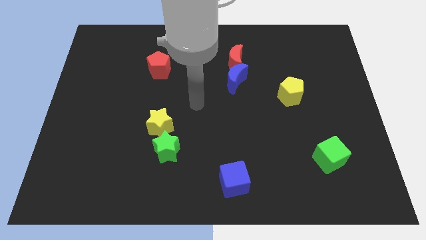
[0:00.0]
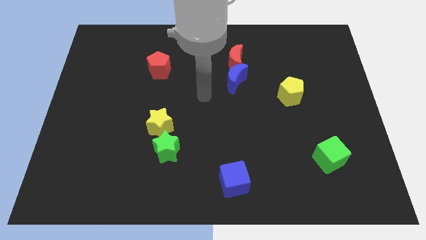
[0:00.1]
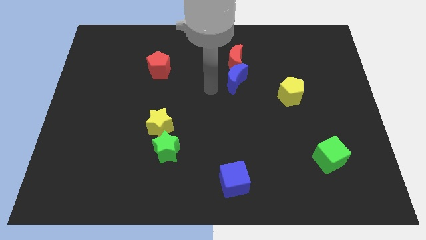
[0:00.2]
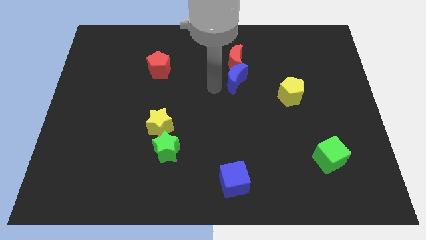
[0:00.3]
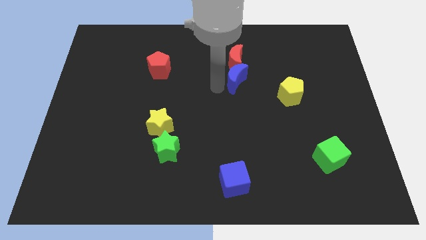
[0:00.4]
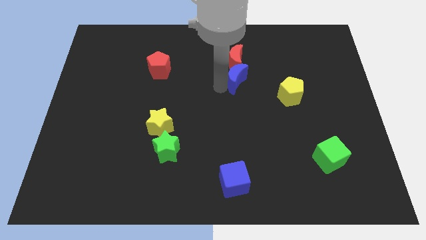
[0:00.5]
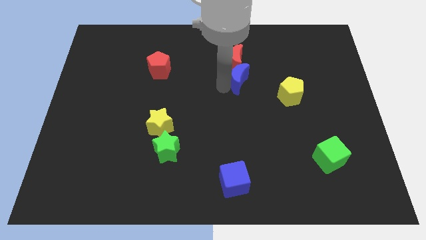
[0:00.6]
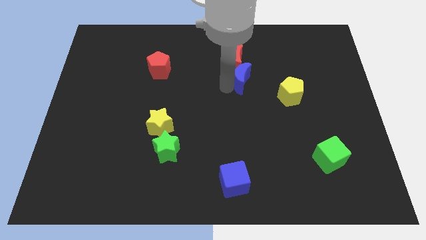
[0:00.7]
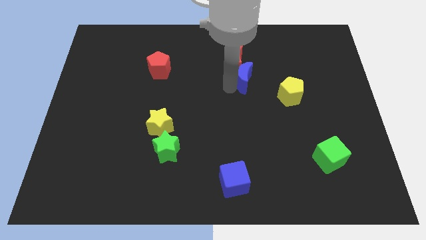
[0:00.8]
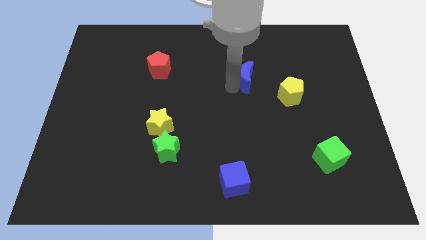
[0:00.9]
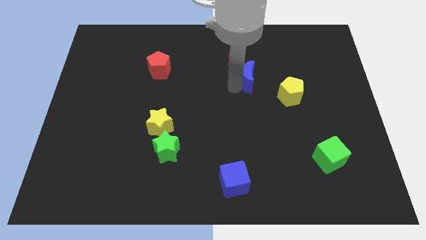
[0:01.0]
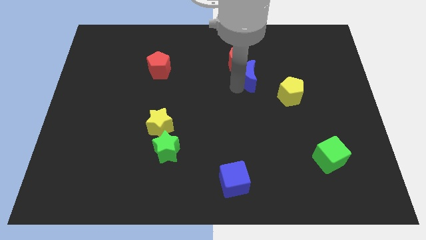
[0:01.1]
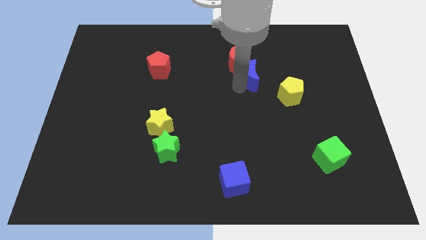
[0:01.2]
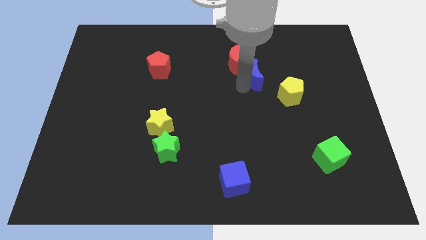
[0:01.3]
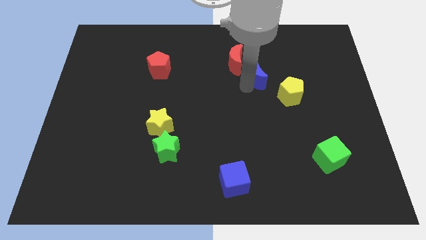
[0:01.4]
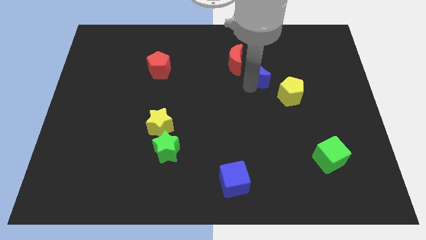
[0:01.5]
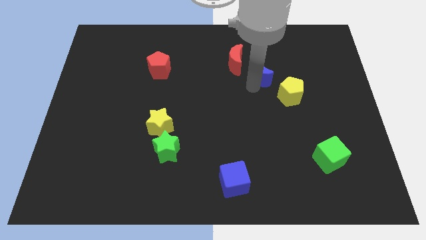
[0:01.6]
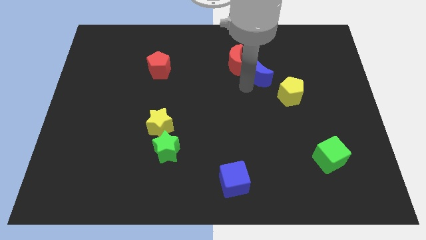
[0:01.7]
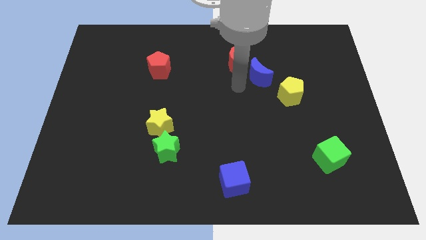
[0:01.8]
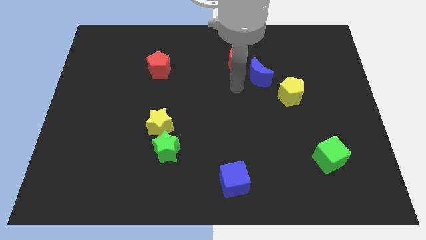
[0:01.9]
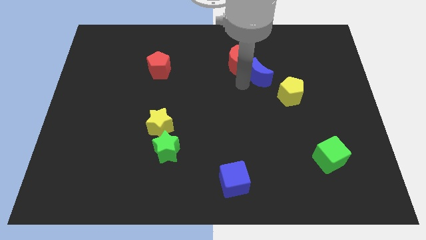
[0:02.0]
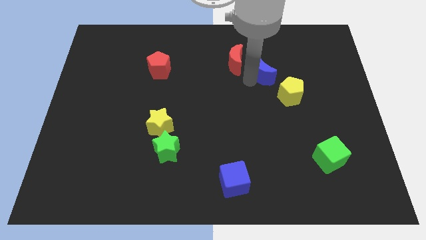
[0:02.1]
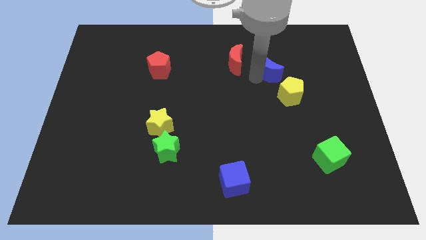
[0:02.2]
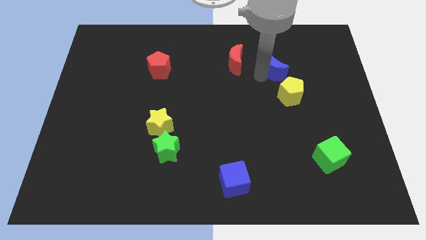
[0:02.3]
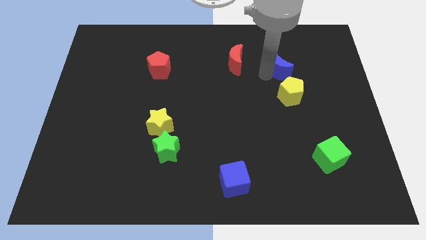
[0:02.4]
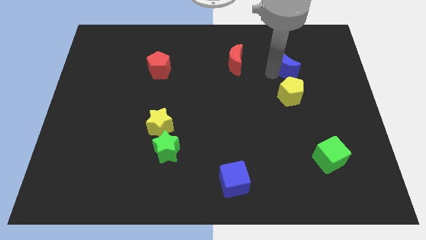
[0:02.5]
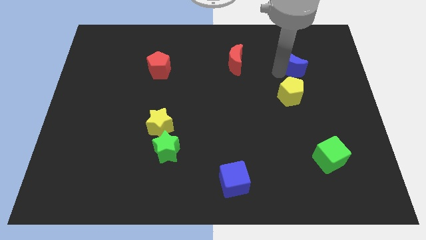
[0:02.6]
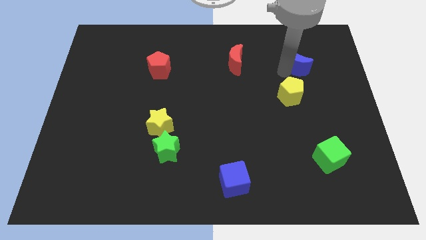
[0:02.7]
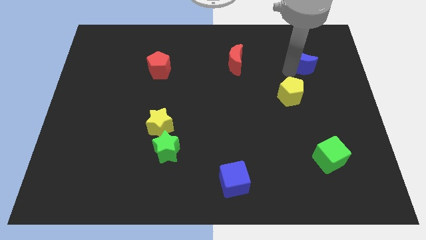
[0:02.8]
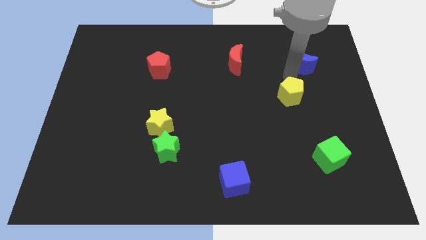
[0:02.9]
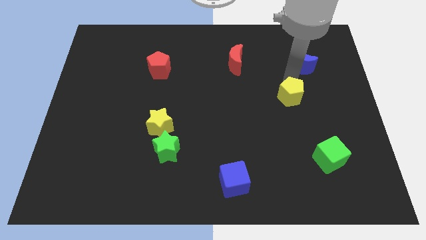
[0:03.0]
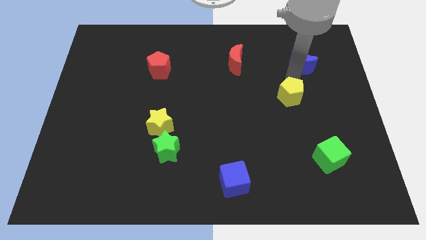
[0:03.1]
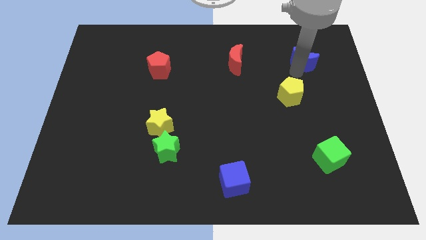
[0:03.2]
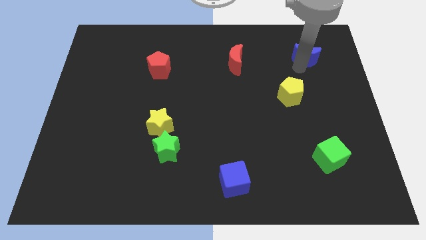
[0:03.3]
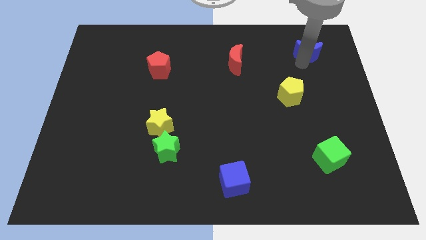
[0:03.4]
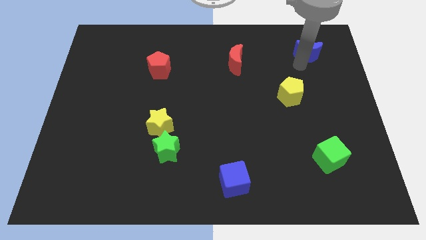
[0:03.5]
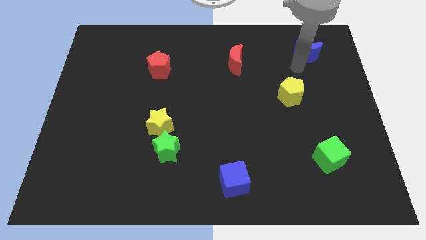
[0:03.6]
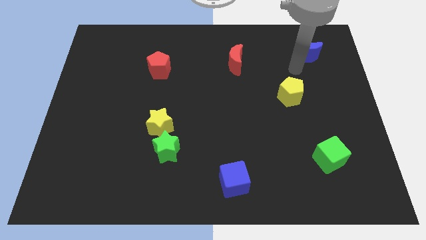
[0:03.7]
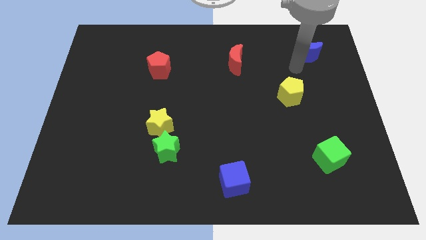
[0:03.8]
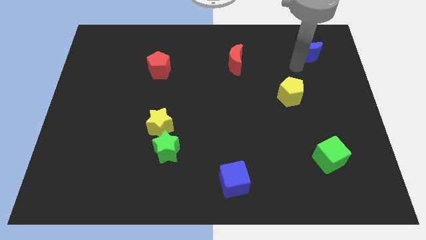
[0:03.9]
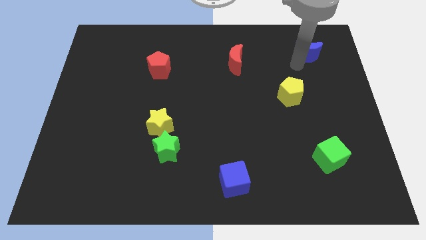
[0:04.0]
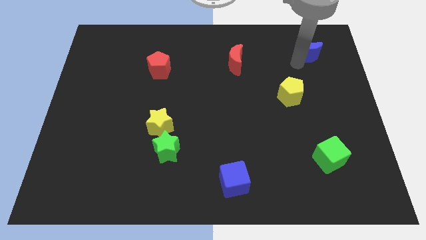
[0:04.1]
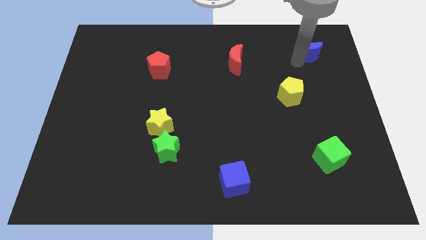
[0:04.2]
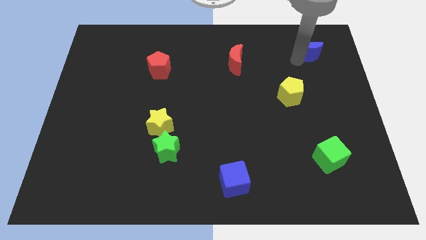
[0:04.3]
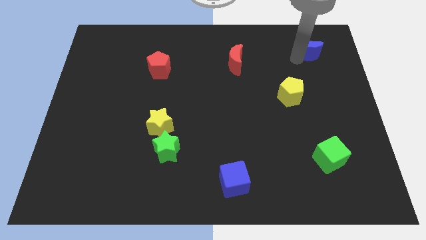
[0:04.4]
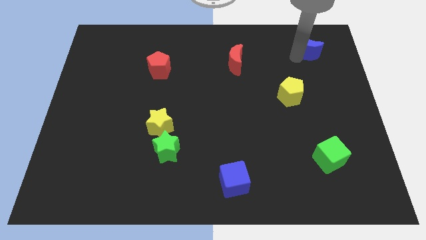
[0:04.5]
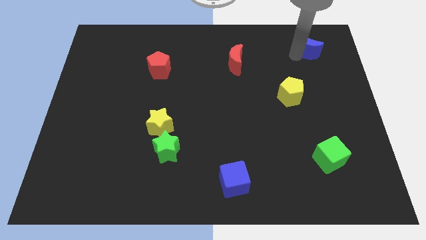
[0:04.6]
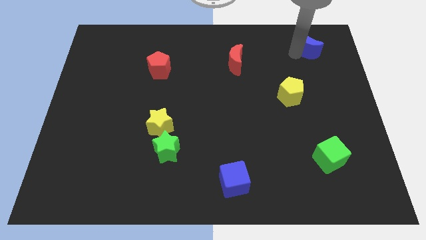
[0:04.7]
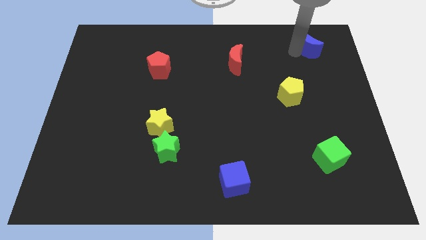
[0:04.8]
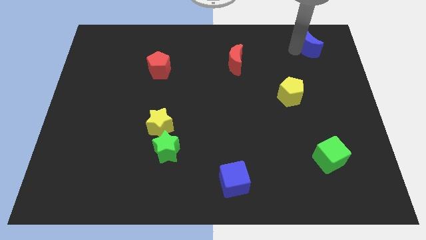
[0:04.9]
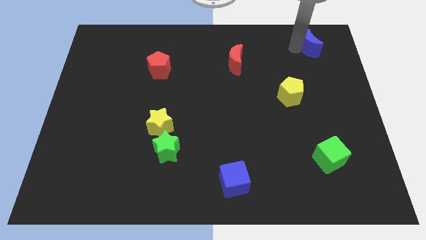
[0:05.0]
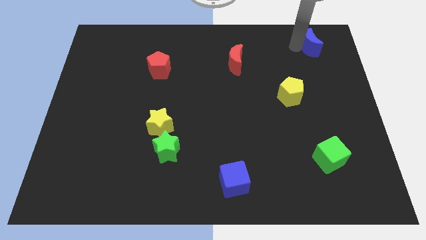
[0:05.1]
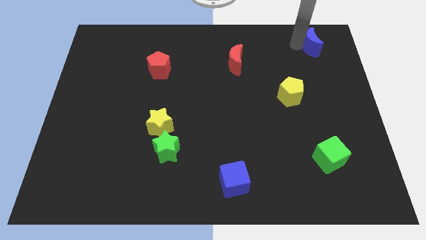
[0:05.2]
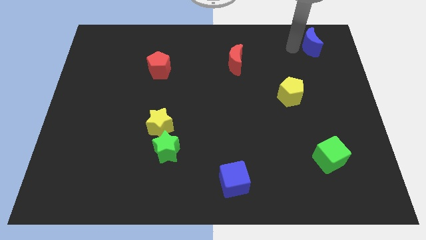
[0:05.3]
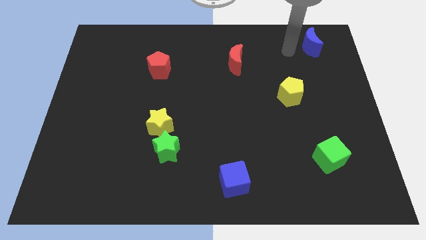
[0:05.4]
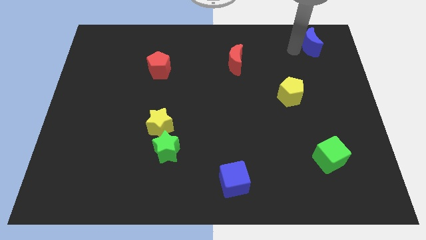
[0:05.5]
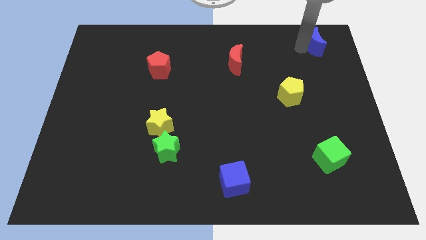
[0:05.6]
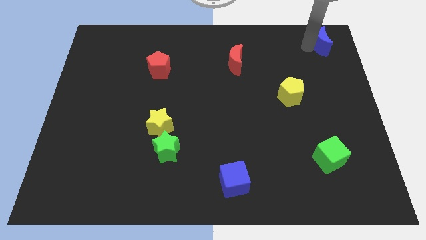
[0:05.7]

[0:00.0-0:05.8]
push the blue moon to the upper right corner
